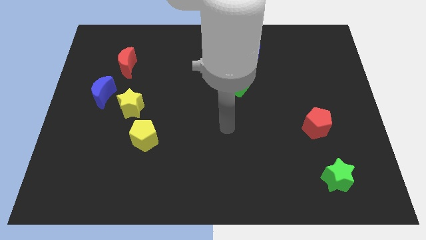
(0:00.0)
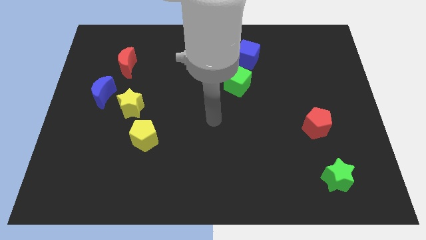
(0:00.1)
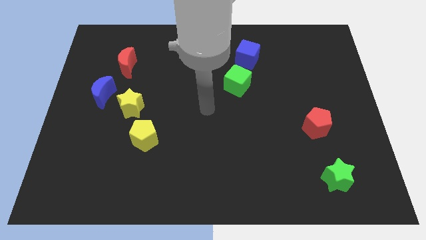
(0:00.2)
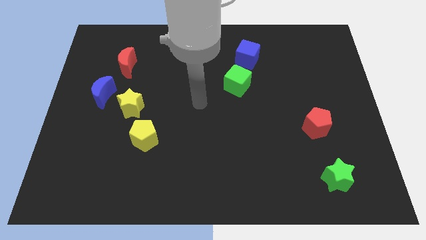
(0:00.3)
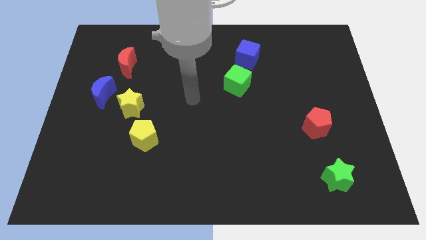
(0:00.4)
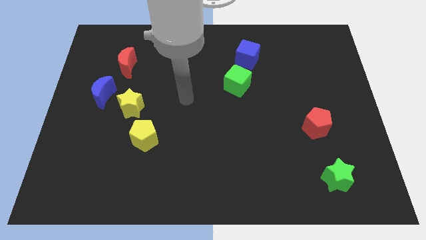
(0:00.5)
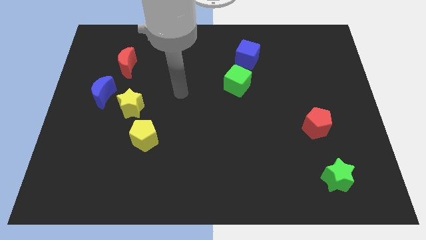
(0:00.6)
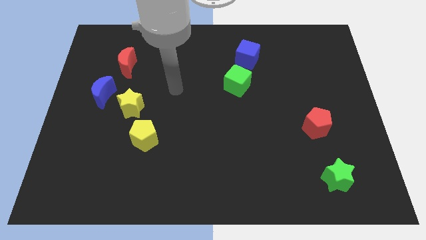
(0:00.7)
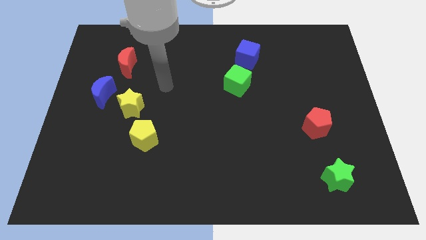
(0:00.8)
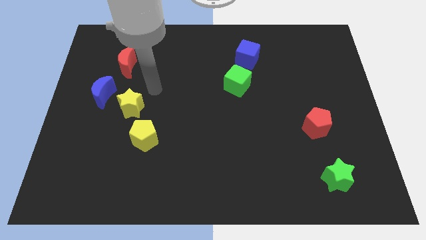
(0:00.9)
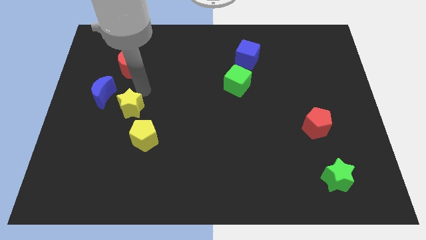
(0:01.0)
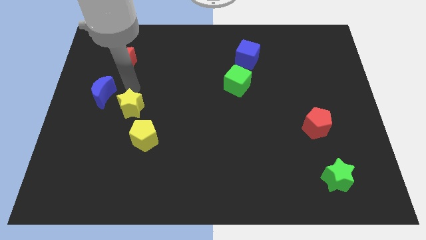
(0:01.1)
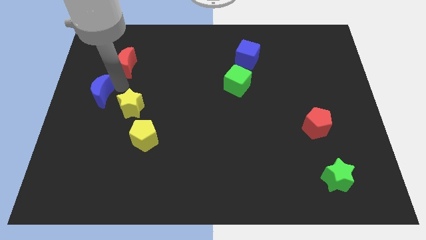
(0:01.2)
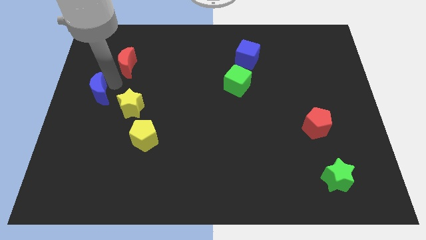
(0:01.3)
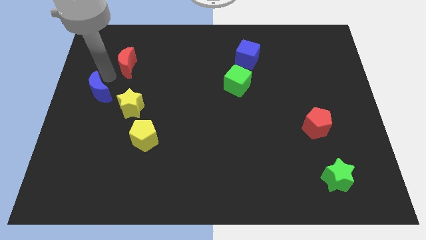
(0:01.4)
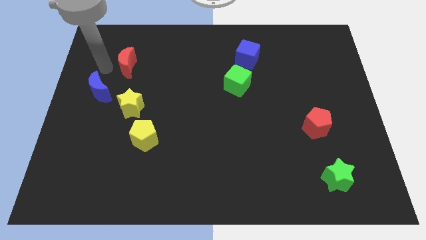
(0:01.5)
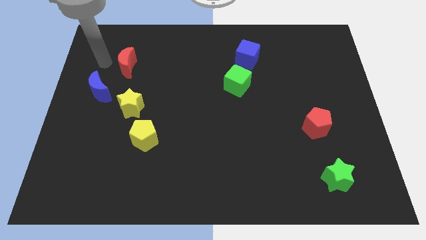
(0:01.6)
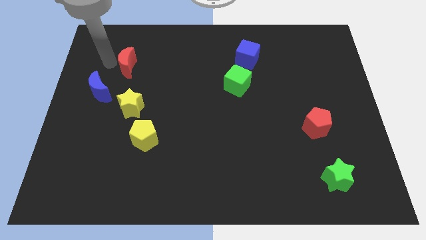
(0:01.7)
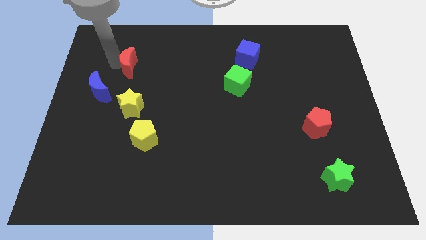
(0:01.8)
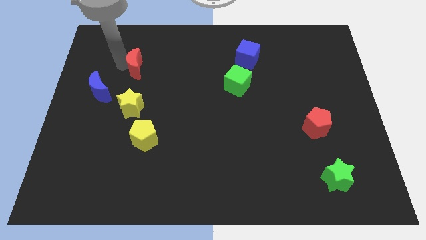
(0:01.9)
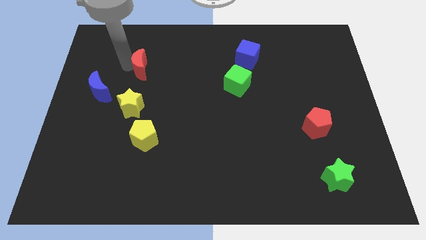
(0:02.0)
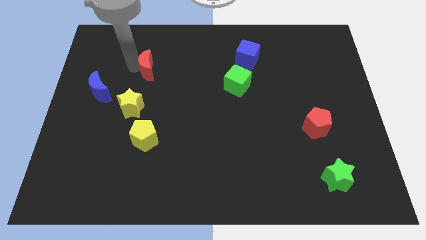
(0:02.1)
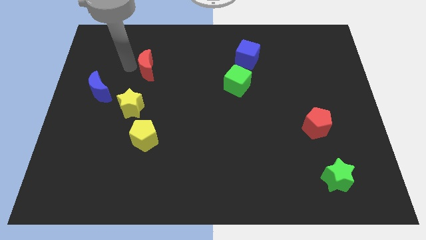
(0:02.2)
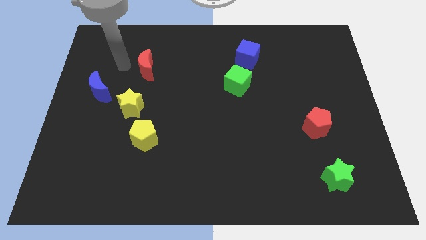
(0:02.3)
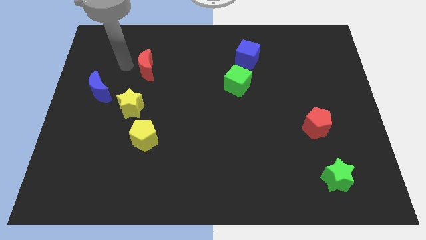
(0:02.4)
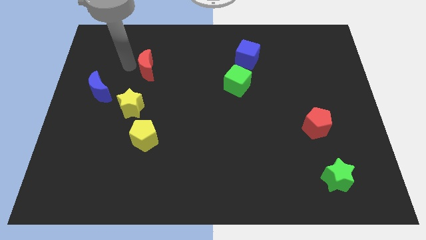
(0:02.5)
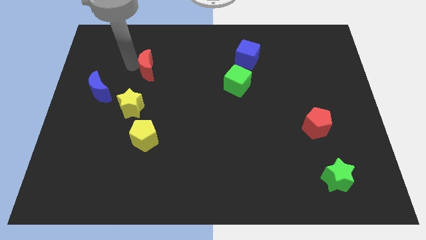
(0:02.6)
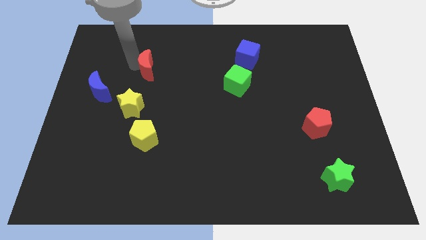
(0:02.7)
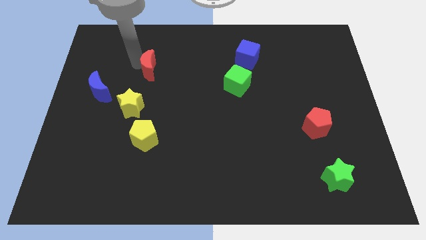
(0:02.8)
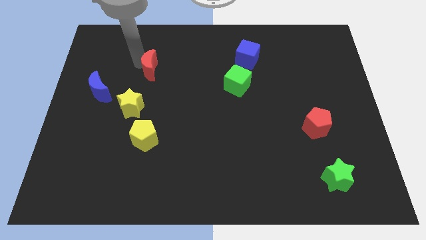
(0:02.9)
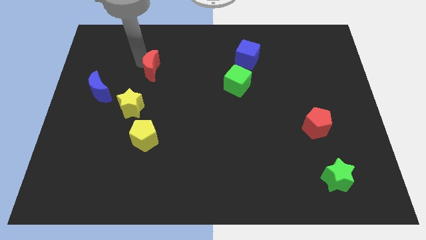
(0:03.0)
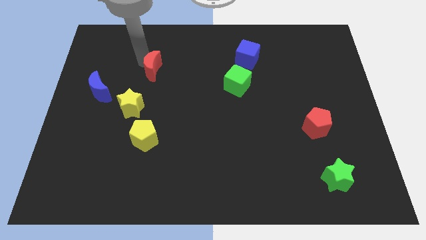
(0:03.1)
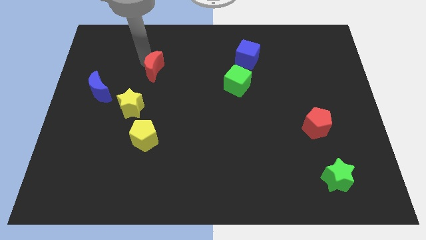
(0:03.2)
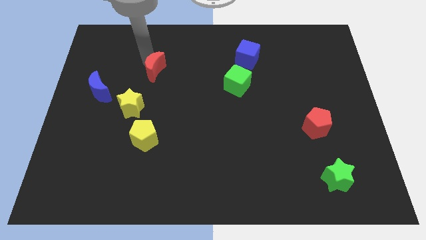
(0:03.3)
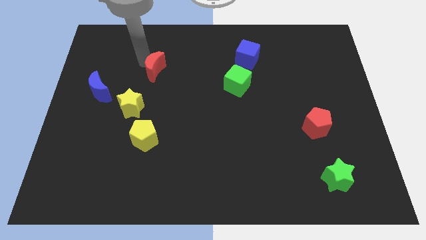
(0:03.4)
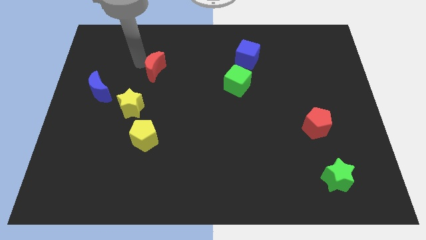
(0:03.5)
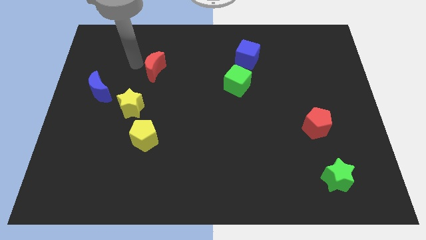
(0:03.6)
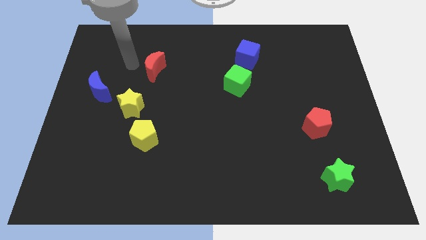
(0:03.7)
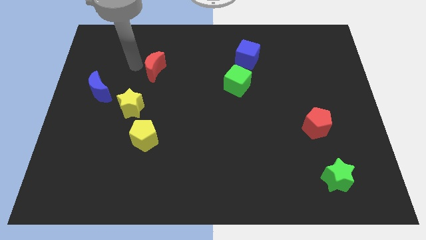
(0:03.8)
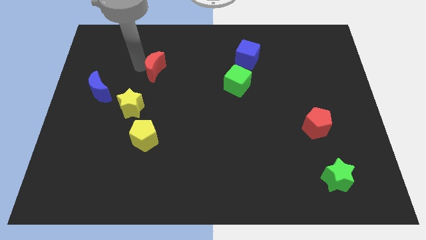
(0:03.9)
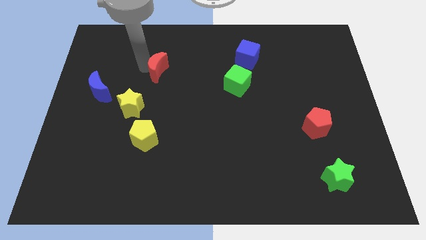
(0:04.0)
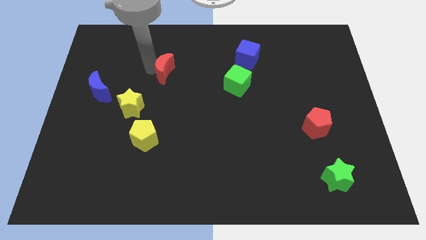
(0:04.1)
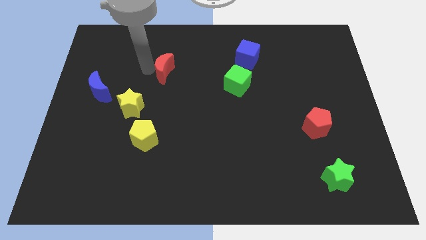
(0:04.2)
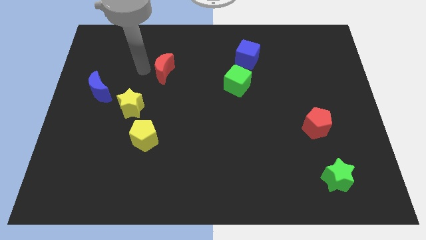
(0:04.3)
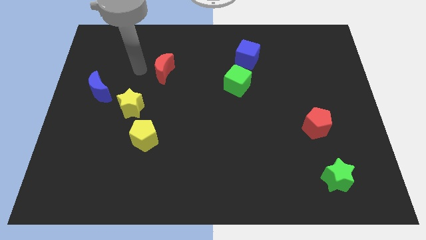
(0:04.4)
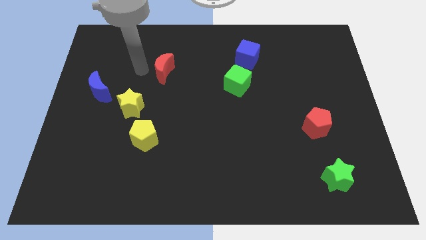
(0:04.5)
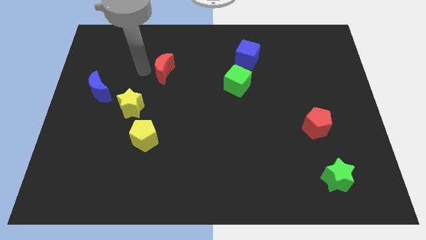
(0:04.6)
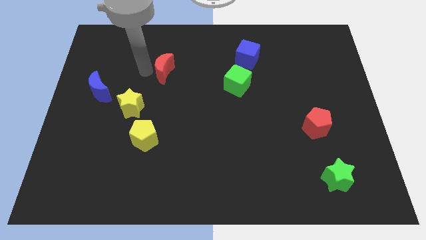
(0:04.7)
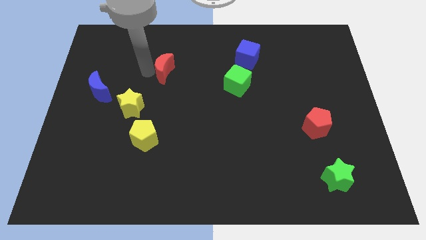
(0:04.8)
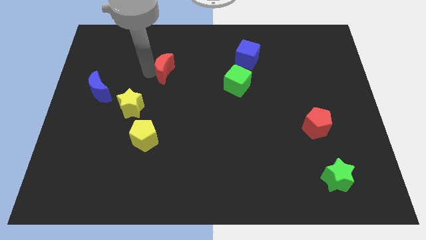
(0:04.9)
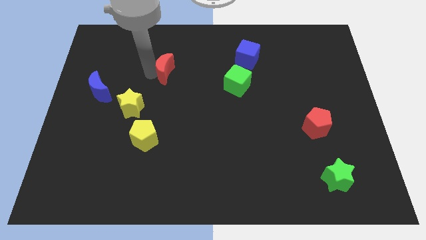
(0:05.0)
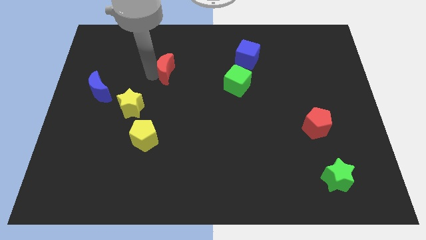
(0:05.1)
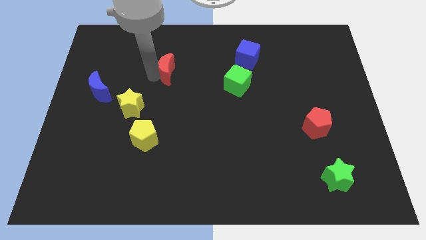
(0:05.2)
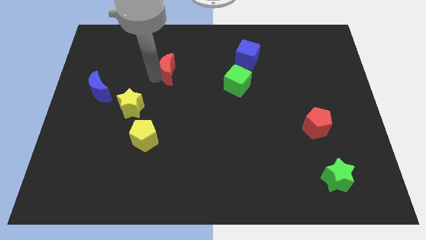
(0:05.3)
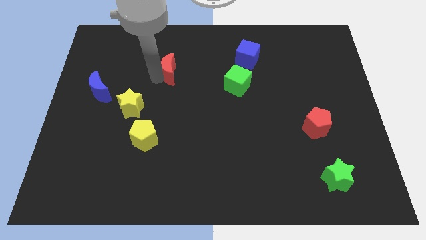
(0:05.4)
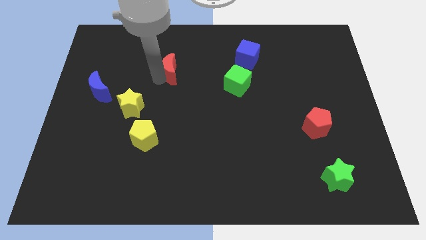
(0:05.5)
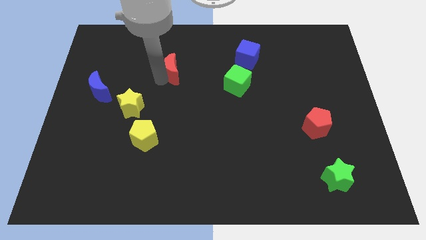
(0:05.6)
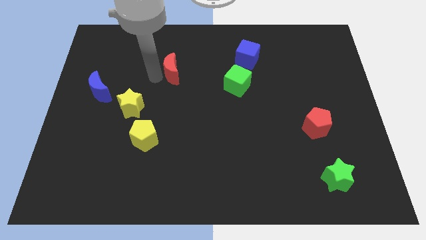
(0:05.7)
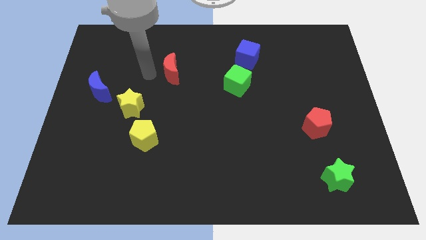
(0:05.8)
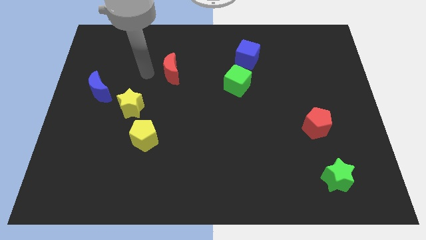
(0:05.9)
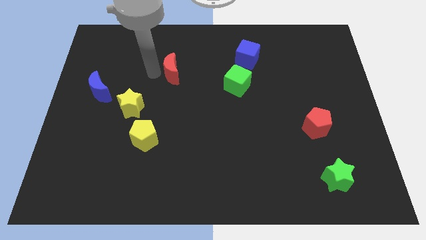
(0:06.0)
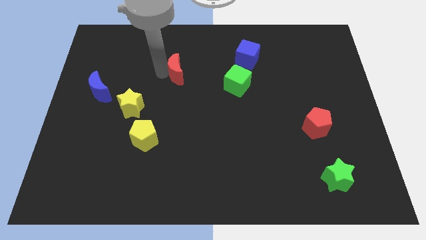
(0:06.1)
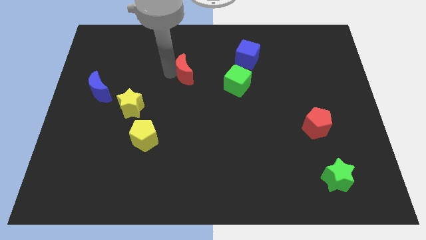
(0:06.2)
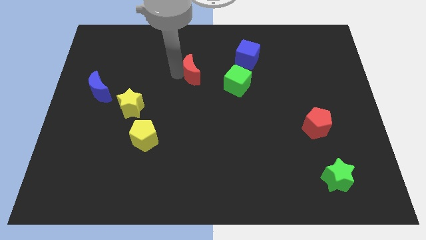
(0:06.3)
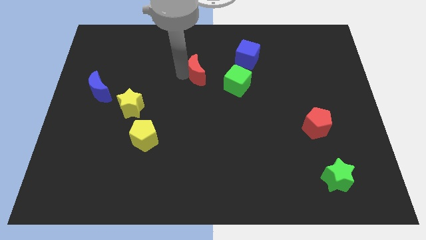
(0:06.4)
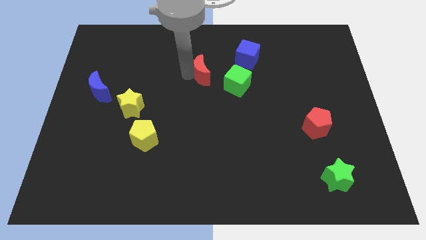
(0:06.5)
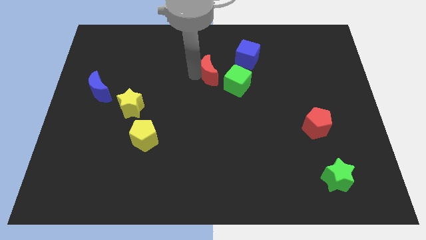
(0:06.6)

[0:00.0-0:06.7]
push the red moon to the bottom left side of the blue cube

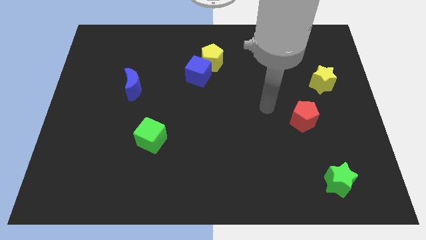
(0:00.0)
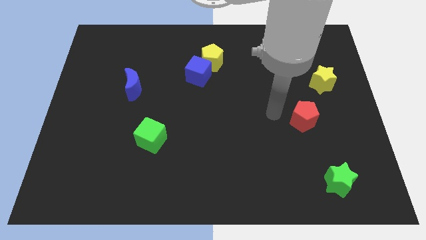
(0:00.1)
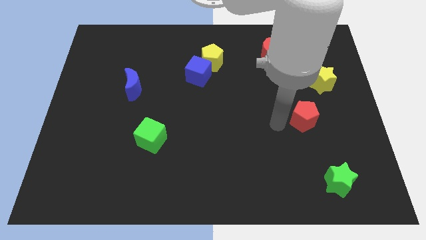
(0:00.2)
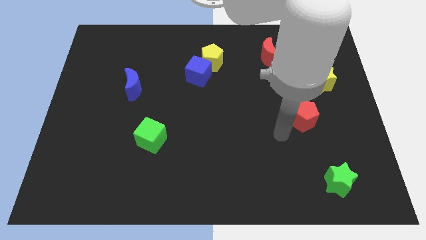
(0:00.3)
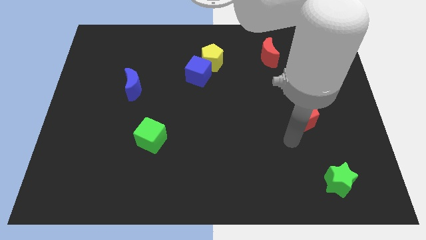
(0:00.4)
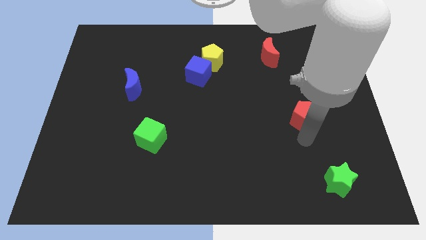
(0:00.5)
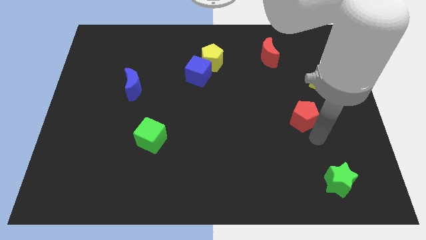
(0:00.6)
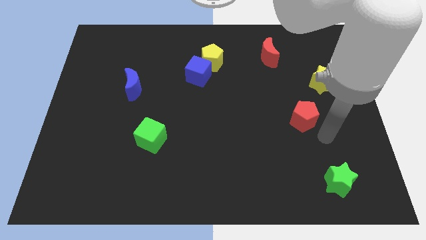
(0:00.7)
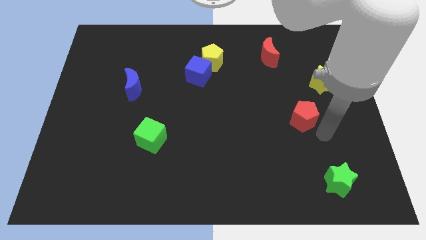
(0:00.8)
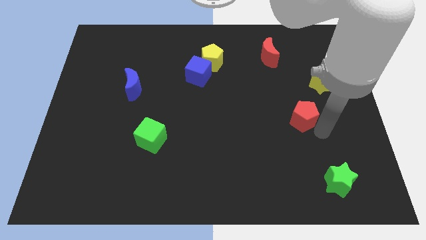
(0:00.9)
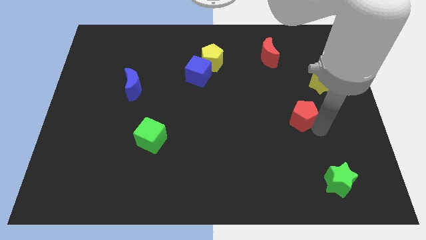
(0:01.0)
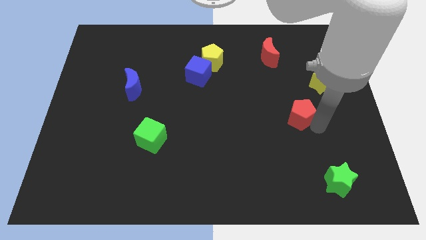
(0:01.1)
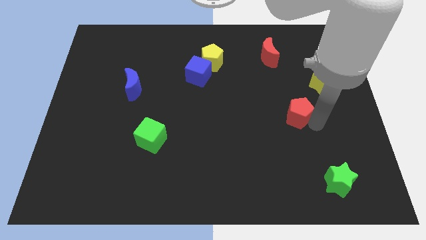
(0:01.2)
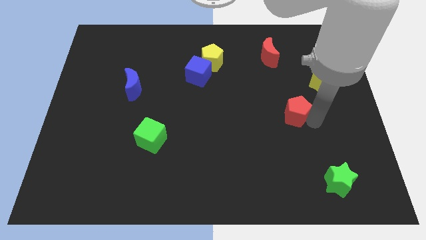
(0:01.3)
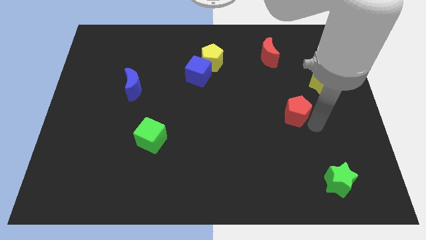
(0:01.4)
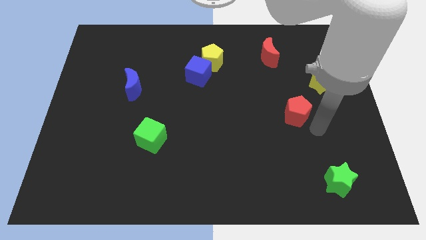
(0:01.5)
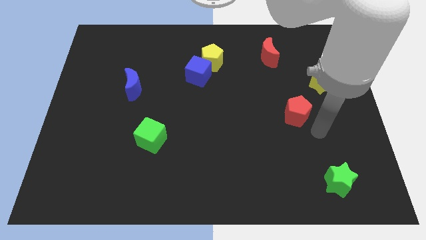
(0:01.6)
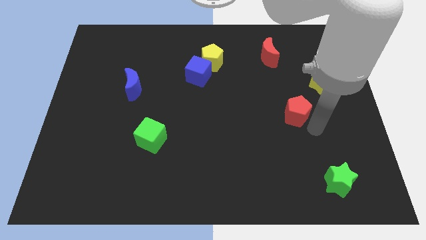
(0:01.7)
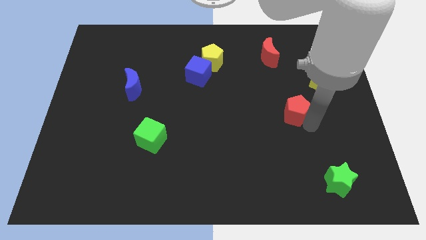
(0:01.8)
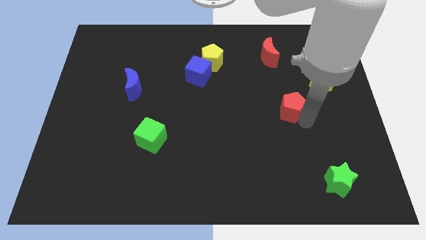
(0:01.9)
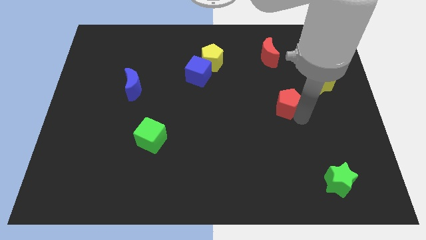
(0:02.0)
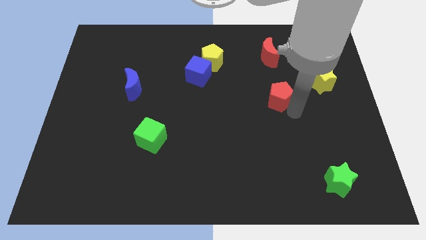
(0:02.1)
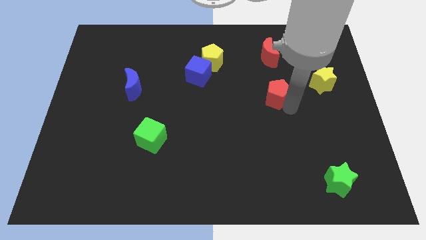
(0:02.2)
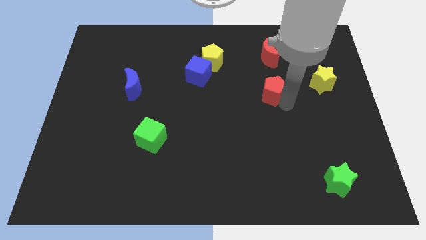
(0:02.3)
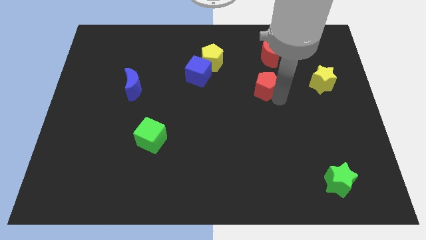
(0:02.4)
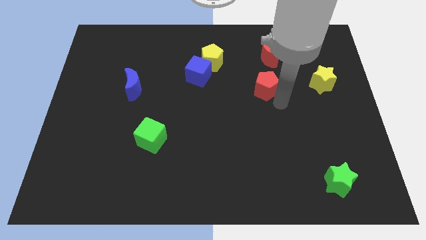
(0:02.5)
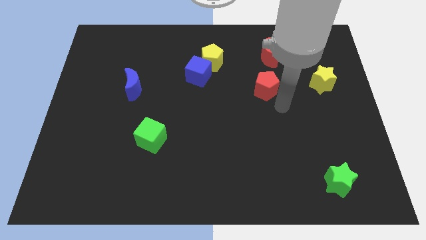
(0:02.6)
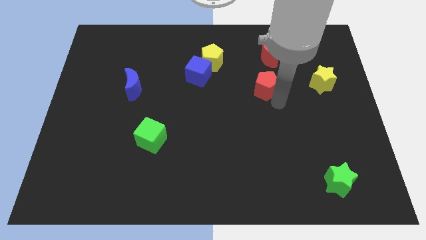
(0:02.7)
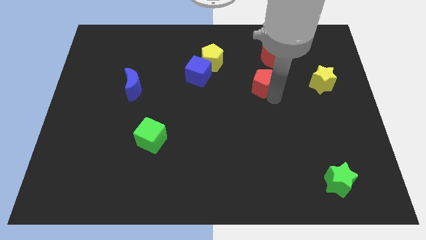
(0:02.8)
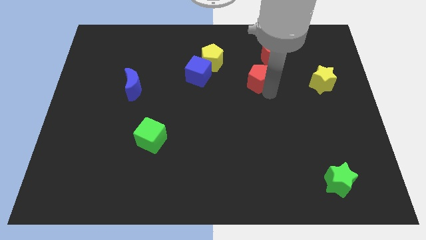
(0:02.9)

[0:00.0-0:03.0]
put the red pentagon to the bottom left of the red moon
